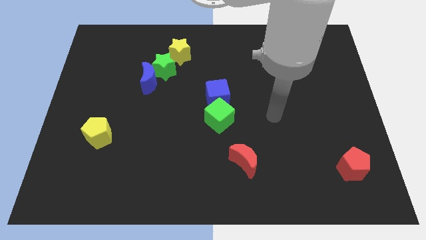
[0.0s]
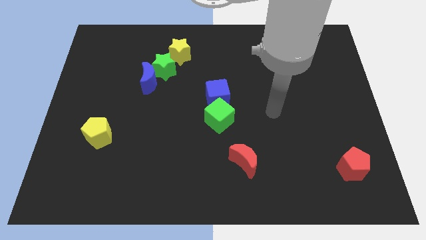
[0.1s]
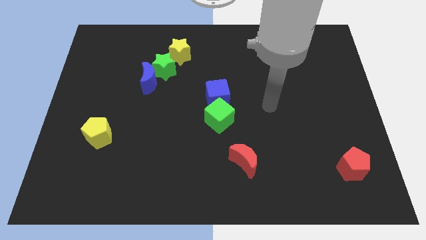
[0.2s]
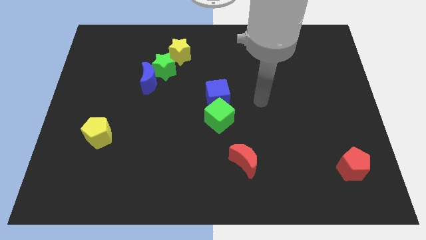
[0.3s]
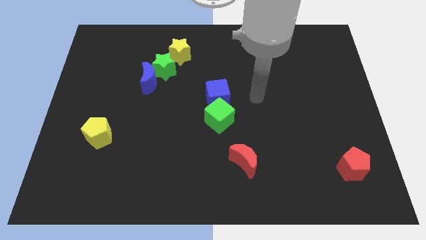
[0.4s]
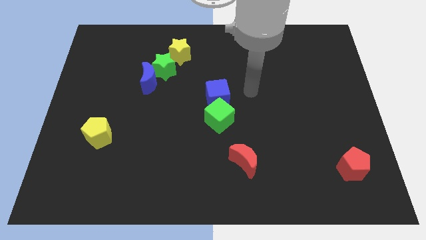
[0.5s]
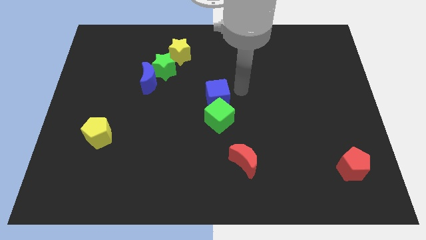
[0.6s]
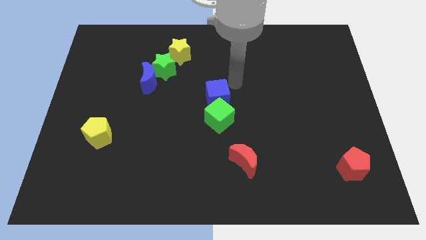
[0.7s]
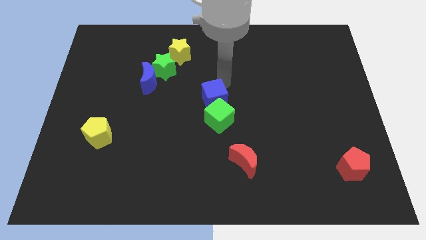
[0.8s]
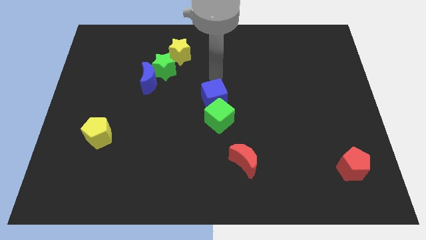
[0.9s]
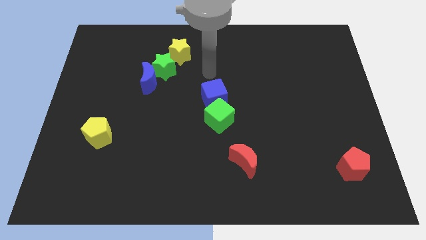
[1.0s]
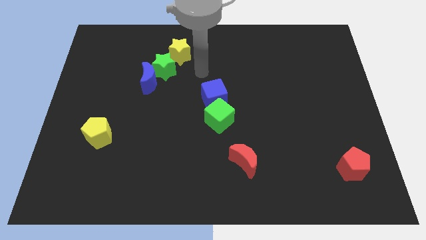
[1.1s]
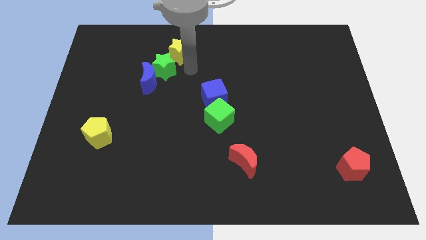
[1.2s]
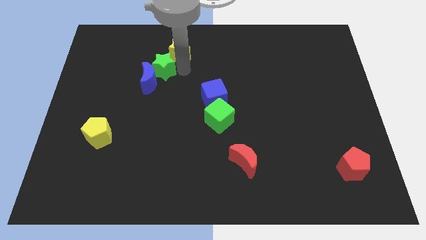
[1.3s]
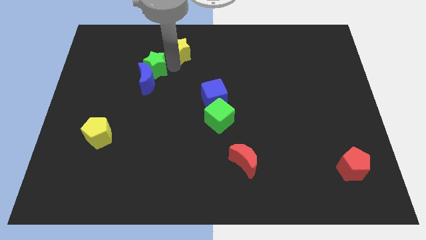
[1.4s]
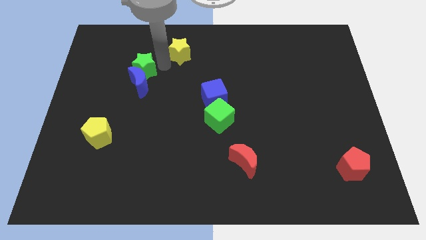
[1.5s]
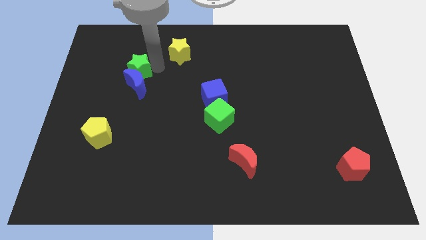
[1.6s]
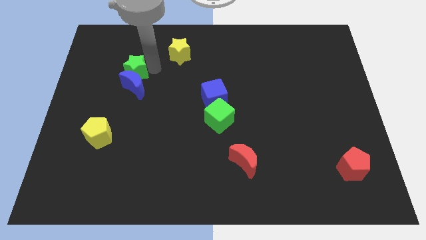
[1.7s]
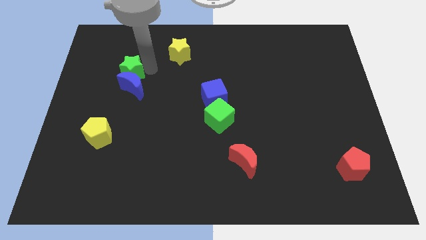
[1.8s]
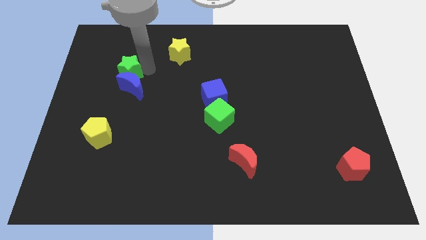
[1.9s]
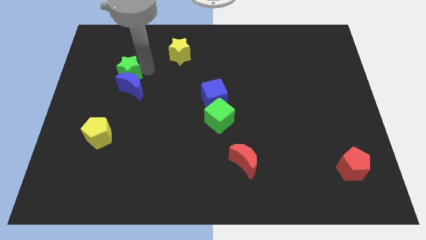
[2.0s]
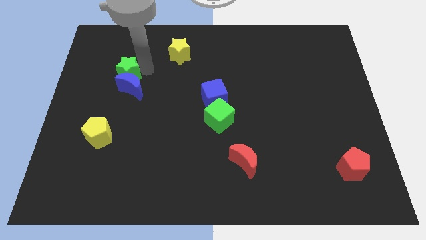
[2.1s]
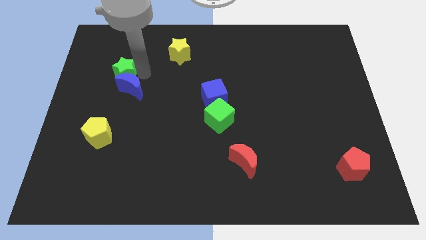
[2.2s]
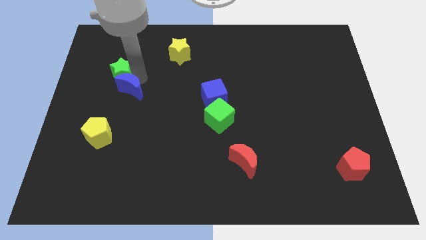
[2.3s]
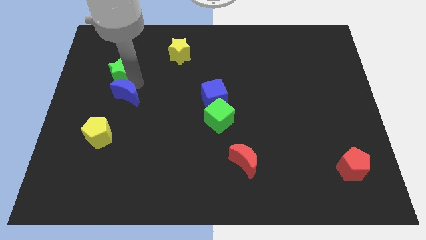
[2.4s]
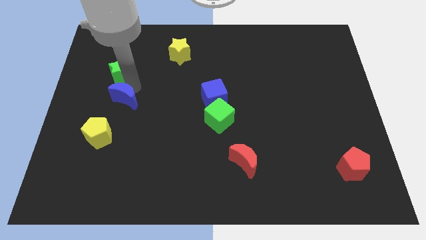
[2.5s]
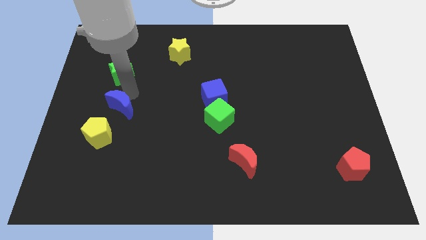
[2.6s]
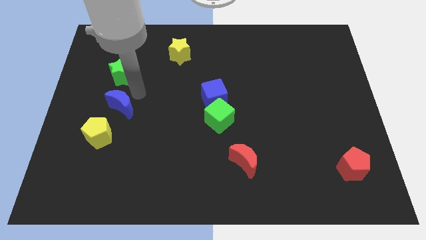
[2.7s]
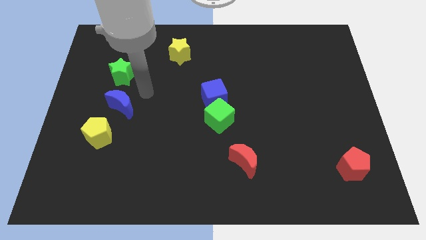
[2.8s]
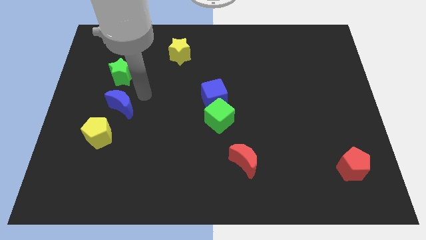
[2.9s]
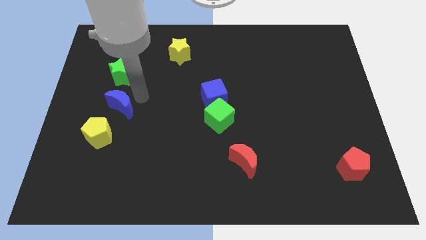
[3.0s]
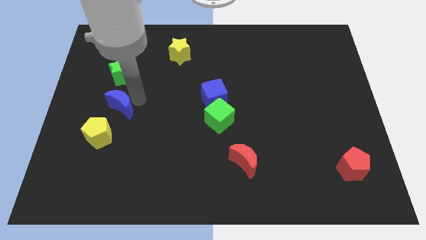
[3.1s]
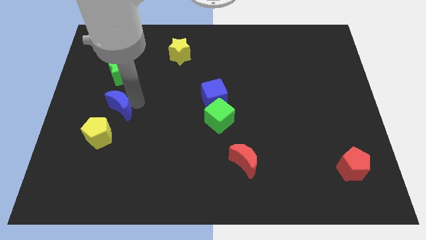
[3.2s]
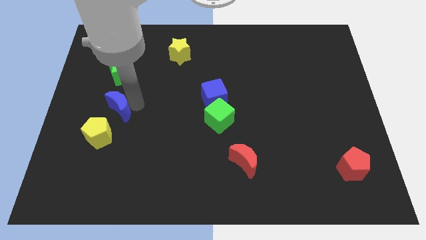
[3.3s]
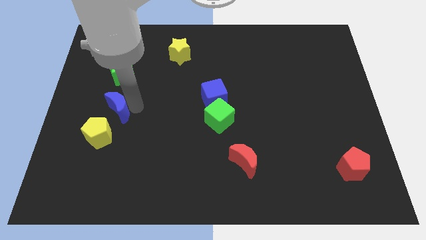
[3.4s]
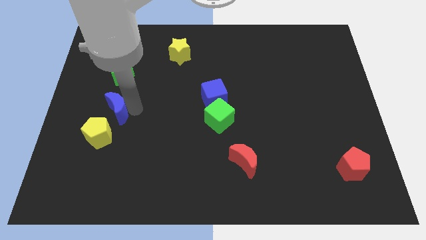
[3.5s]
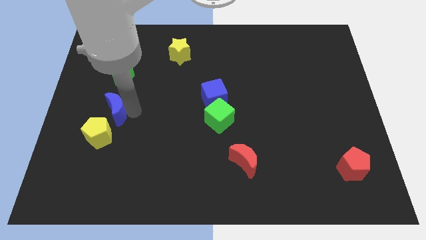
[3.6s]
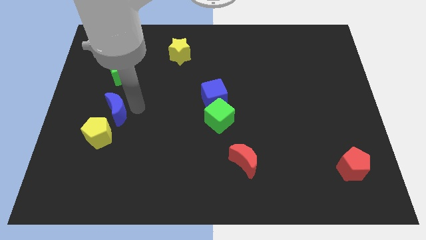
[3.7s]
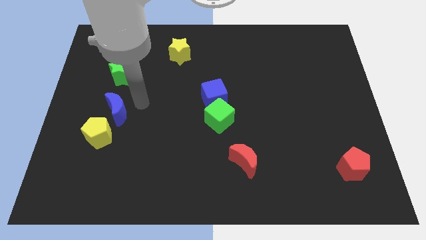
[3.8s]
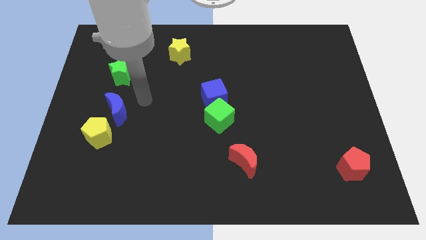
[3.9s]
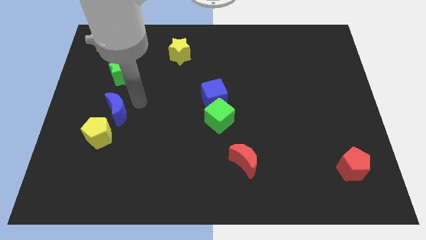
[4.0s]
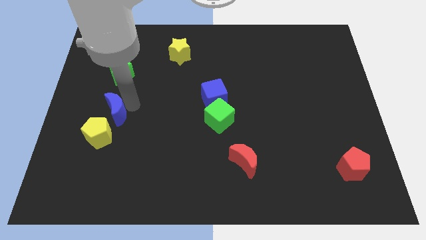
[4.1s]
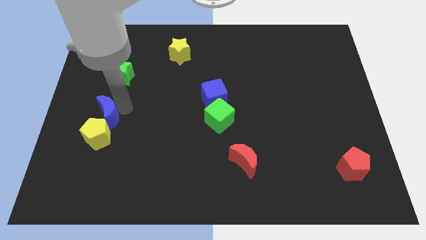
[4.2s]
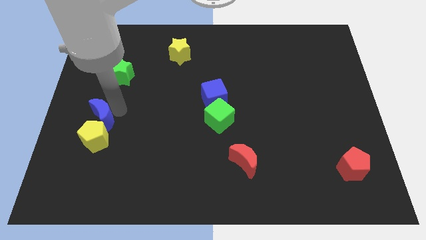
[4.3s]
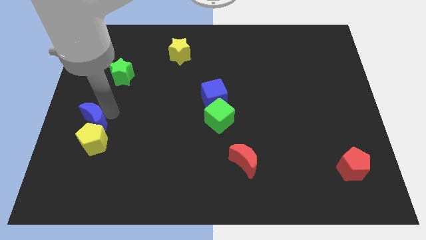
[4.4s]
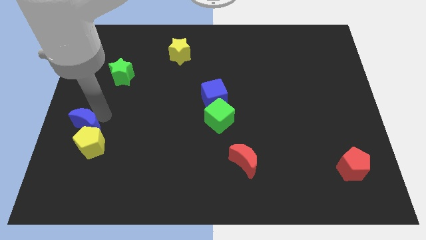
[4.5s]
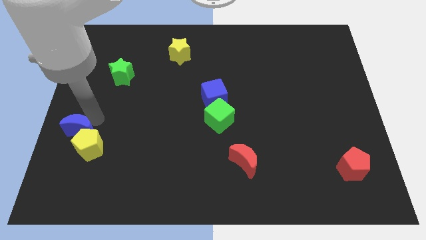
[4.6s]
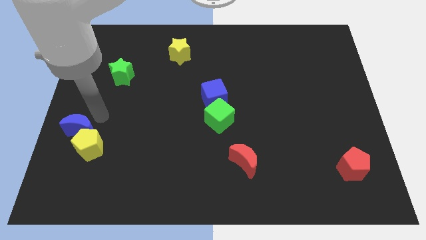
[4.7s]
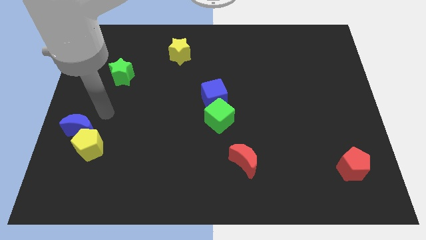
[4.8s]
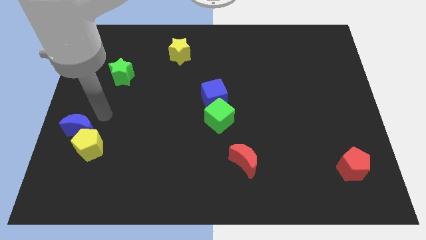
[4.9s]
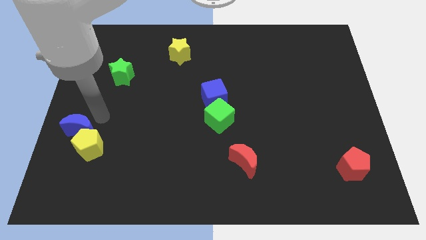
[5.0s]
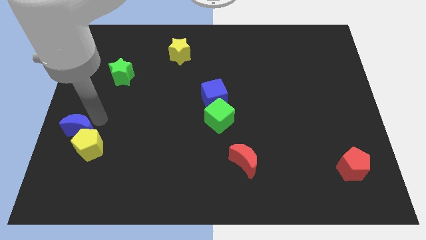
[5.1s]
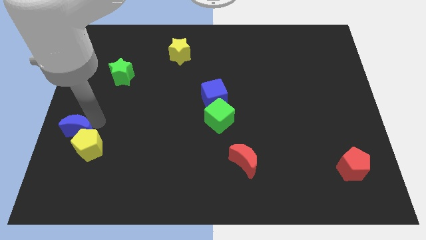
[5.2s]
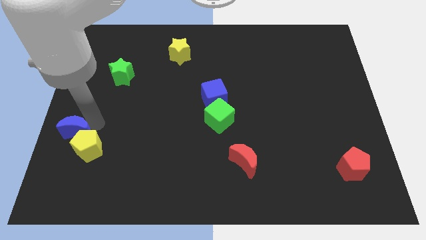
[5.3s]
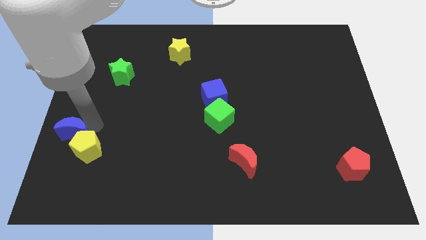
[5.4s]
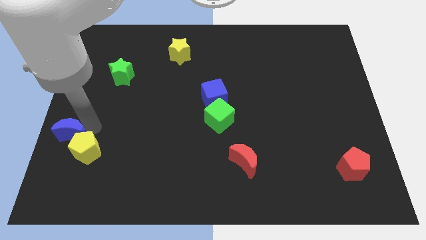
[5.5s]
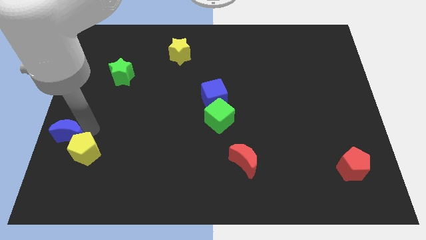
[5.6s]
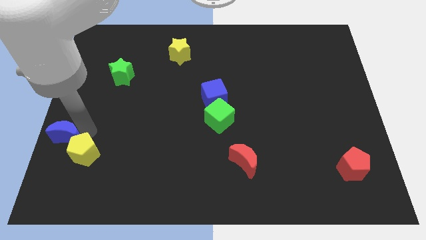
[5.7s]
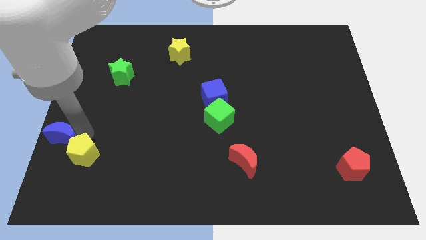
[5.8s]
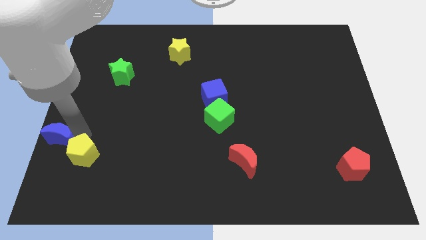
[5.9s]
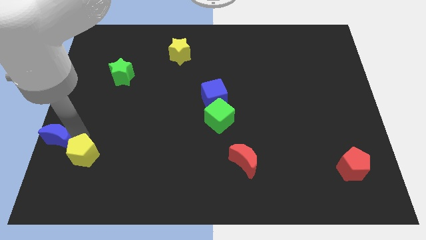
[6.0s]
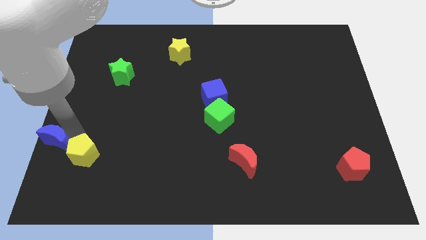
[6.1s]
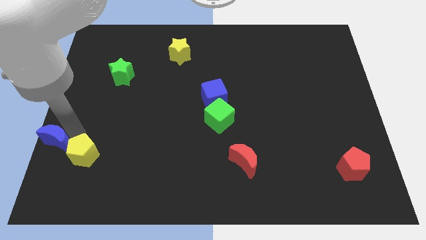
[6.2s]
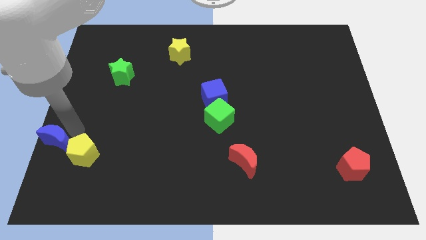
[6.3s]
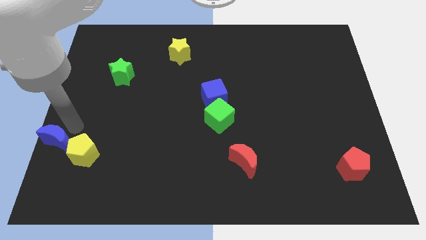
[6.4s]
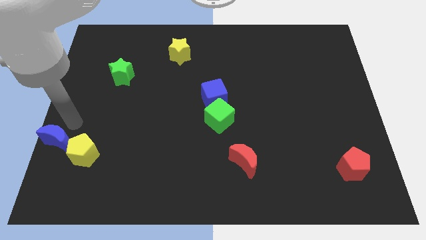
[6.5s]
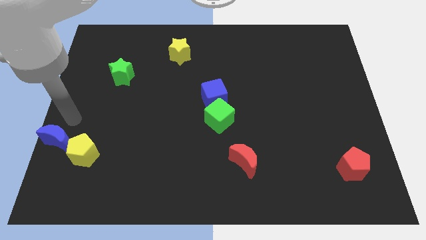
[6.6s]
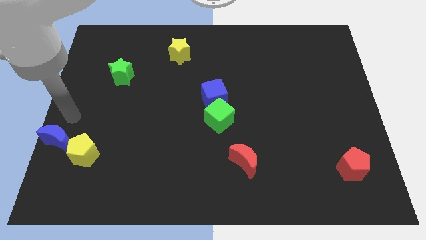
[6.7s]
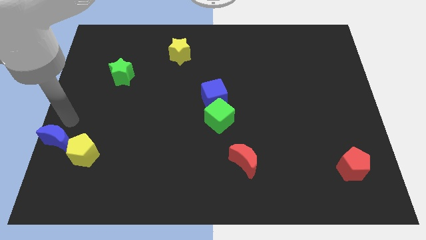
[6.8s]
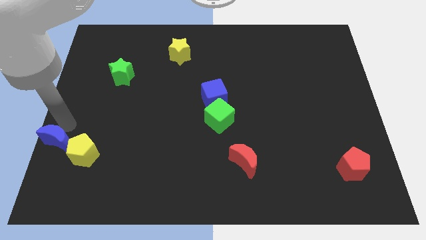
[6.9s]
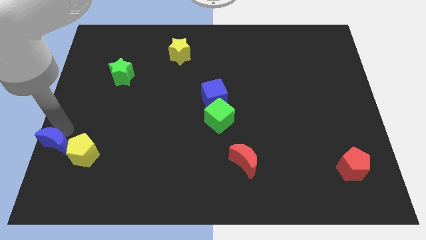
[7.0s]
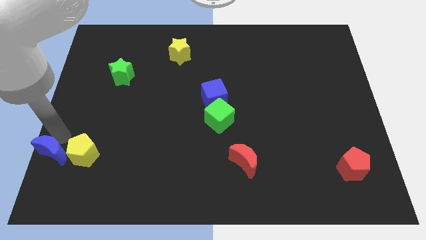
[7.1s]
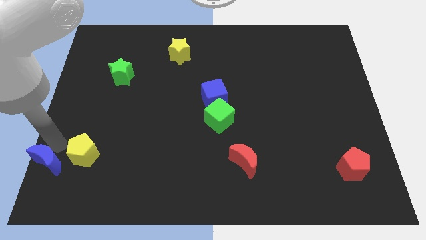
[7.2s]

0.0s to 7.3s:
move the blue moon to the bottom left
